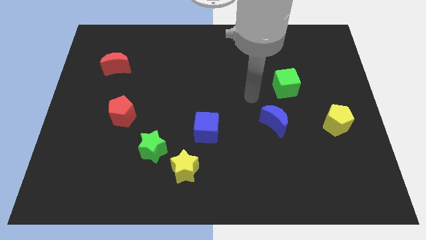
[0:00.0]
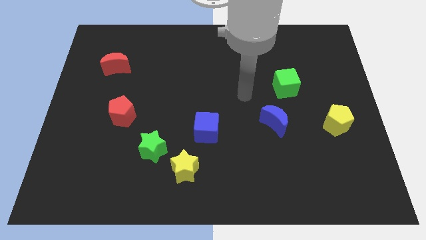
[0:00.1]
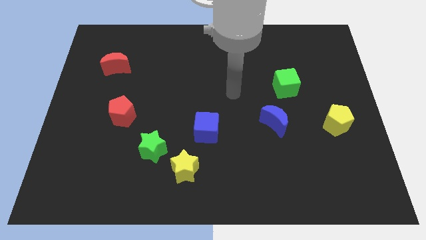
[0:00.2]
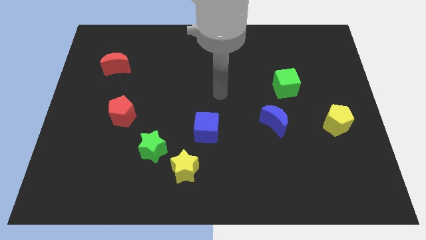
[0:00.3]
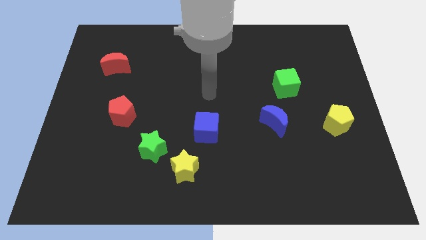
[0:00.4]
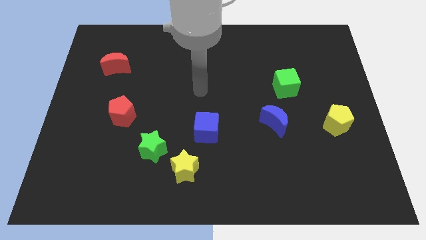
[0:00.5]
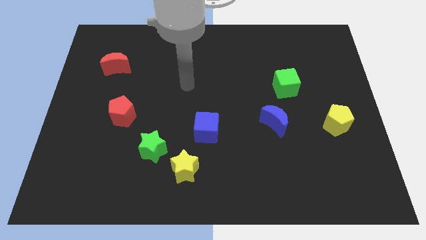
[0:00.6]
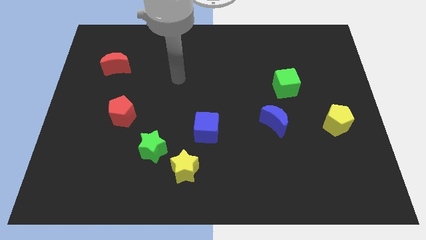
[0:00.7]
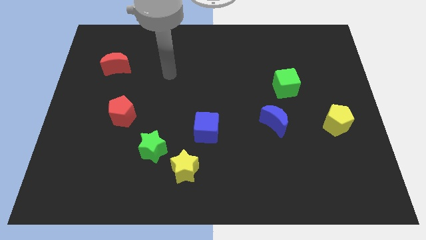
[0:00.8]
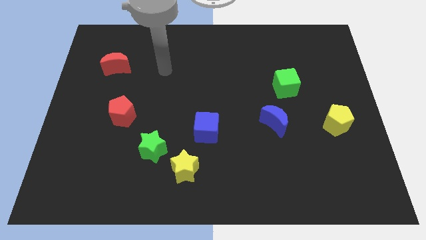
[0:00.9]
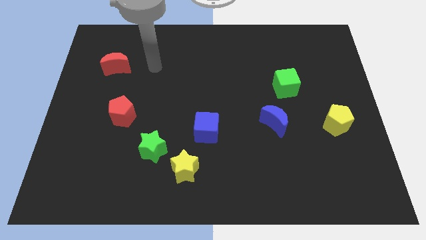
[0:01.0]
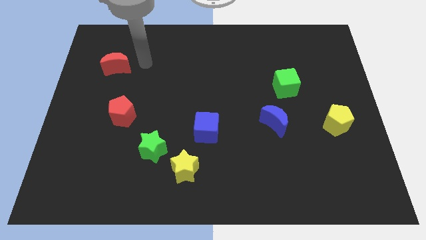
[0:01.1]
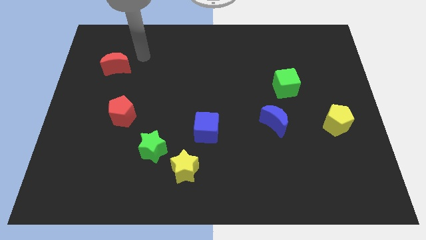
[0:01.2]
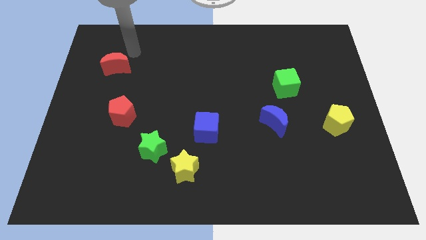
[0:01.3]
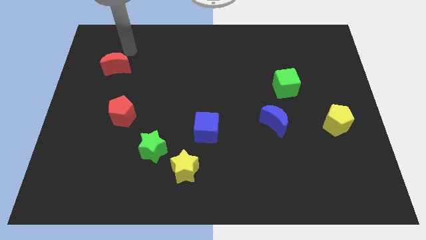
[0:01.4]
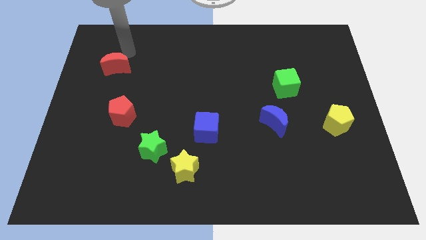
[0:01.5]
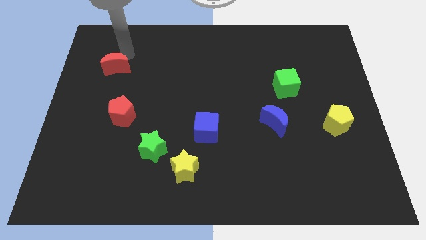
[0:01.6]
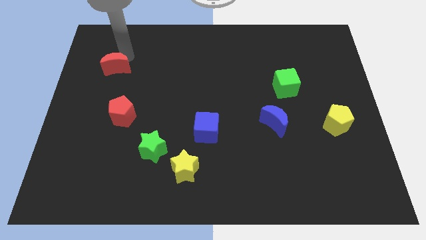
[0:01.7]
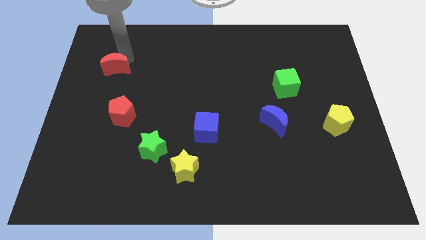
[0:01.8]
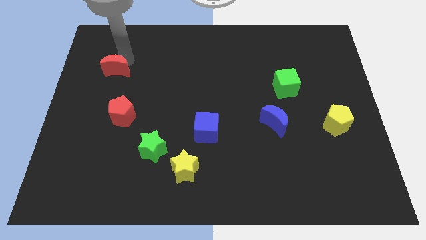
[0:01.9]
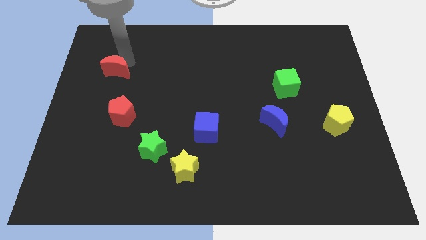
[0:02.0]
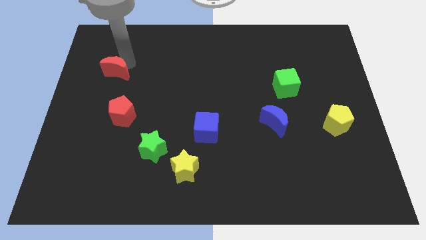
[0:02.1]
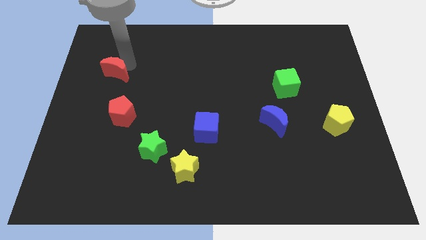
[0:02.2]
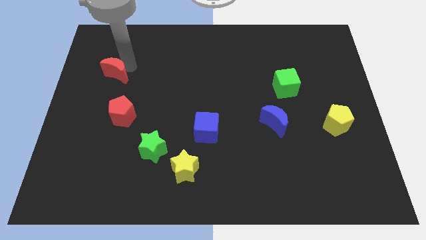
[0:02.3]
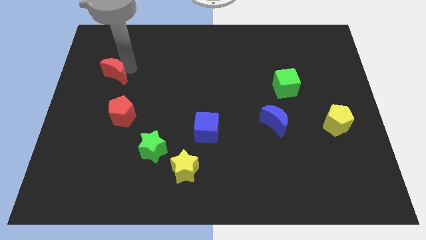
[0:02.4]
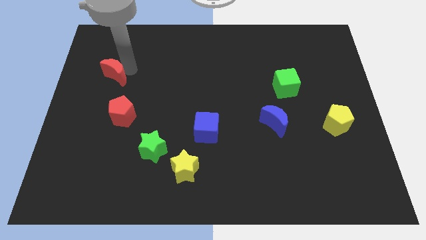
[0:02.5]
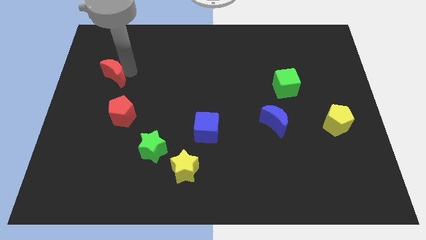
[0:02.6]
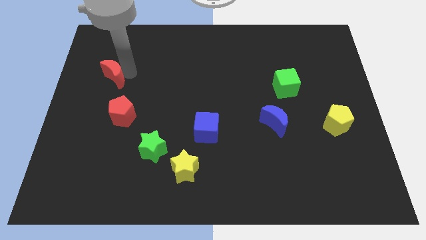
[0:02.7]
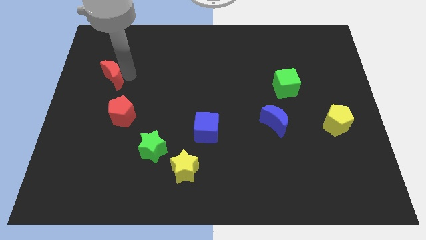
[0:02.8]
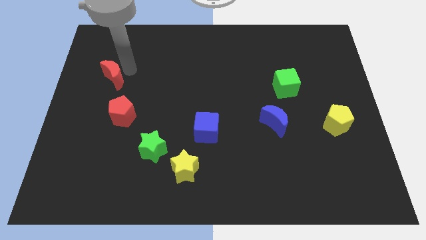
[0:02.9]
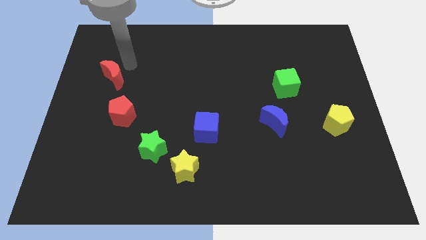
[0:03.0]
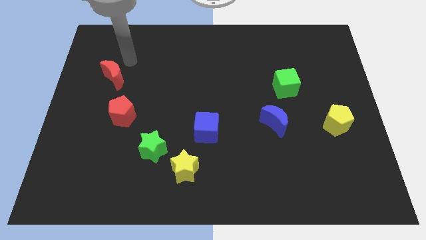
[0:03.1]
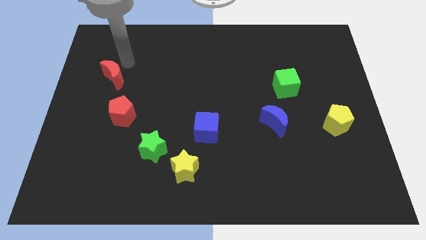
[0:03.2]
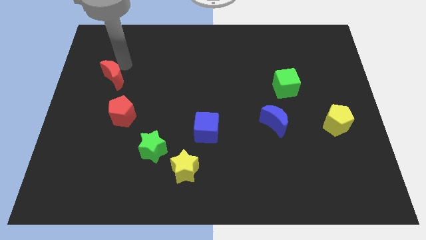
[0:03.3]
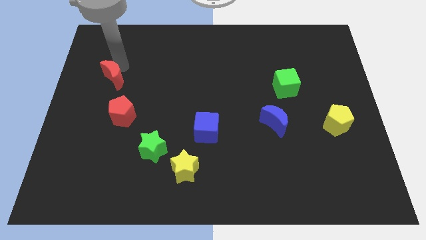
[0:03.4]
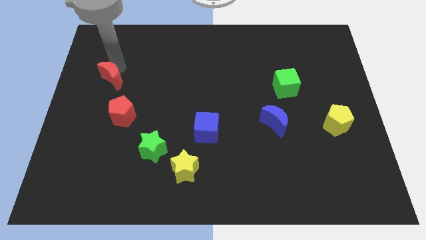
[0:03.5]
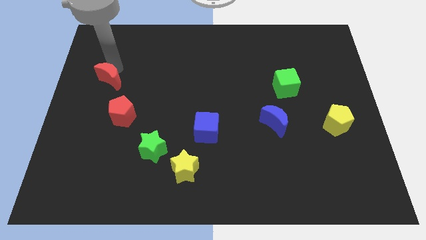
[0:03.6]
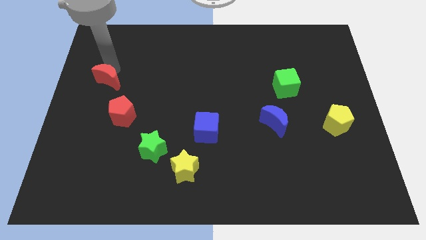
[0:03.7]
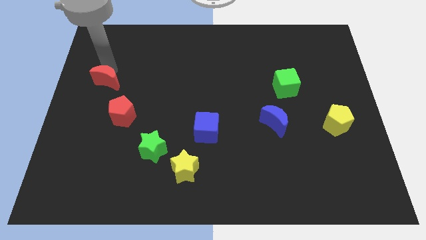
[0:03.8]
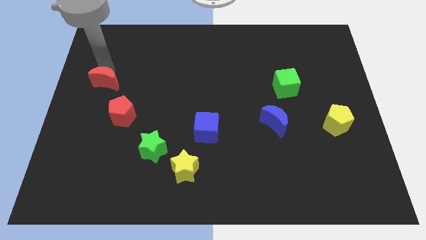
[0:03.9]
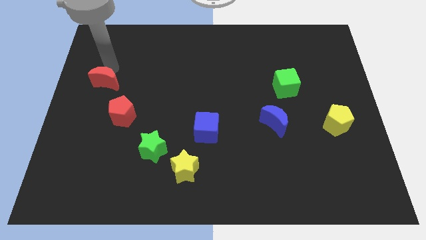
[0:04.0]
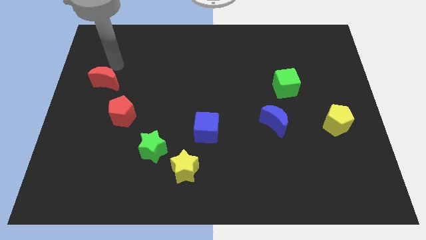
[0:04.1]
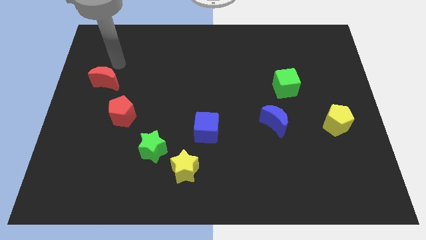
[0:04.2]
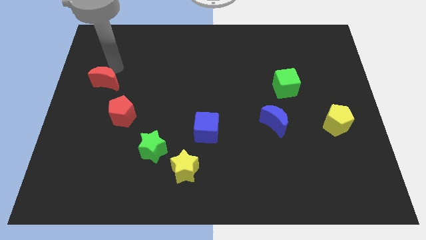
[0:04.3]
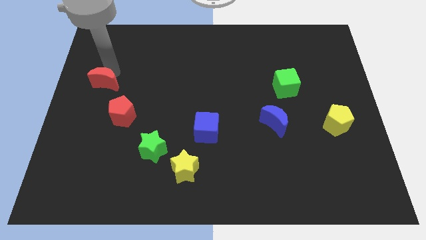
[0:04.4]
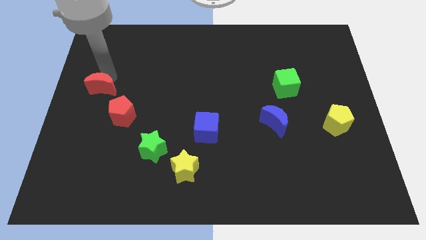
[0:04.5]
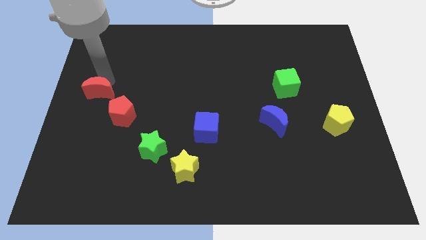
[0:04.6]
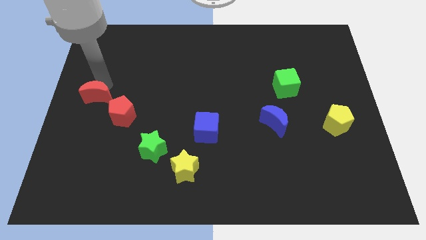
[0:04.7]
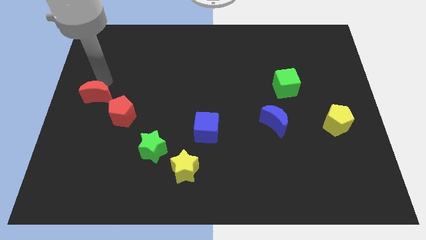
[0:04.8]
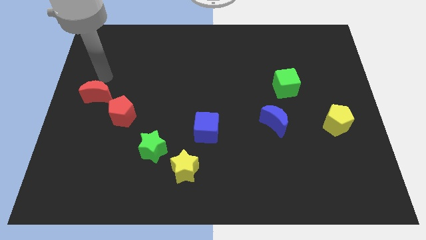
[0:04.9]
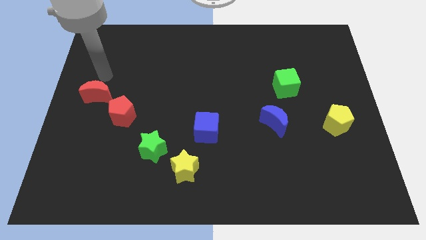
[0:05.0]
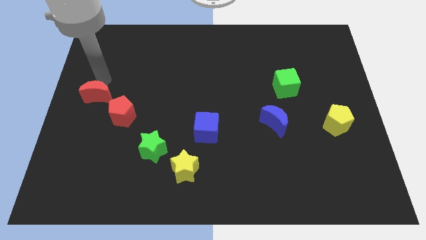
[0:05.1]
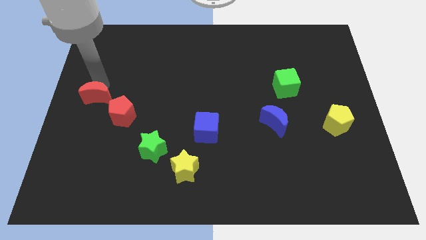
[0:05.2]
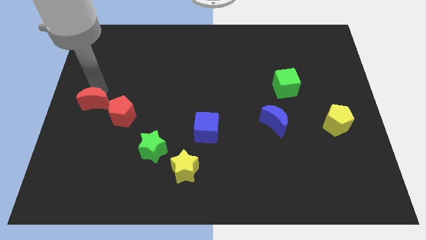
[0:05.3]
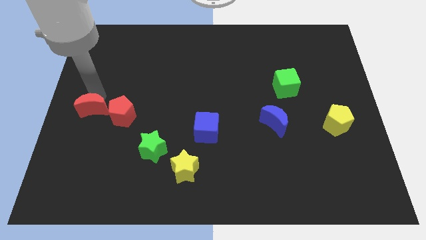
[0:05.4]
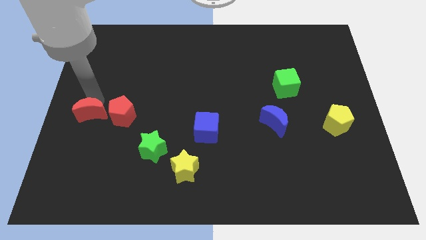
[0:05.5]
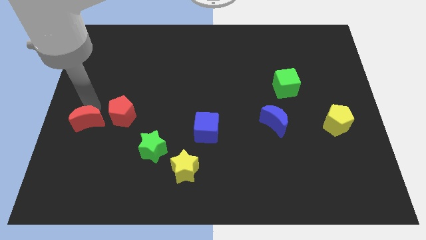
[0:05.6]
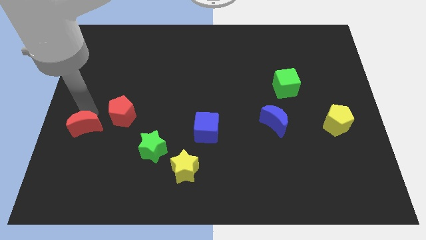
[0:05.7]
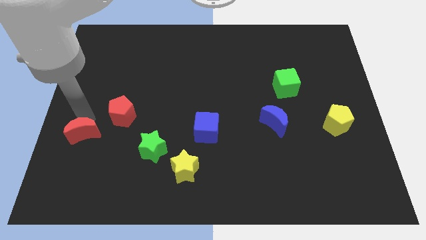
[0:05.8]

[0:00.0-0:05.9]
push the red moon down

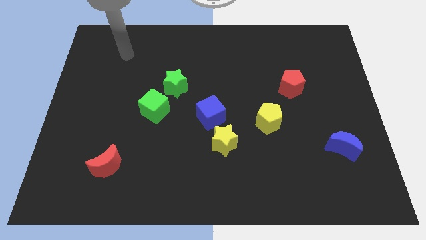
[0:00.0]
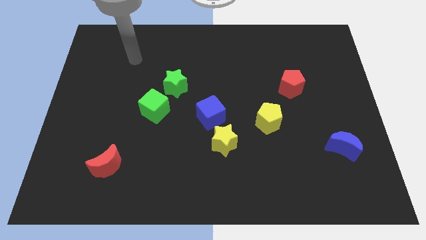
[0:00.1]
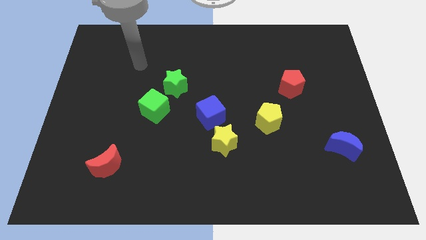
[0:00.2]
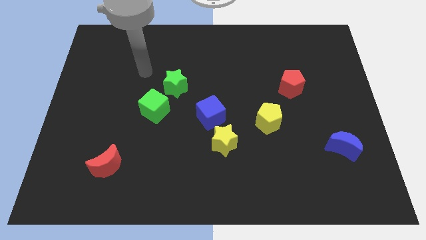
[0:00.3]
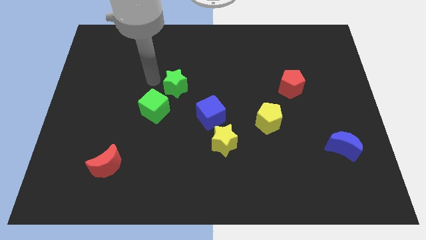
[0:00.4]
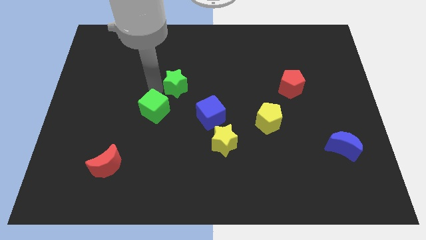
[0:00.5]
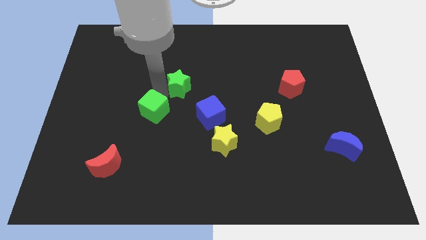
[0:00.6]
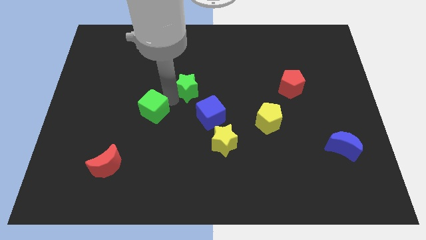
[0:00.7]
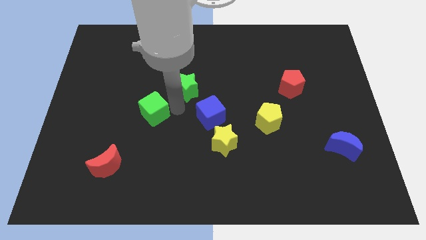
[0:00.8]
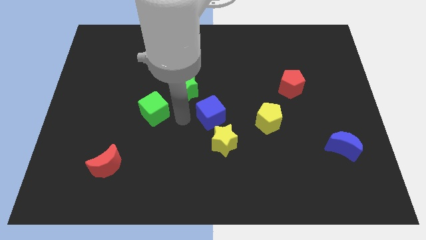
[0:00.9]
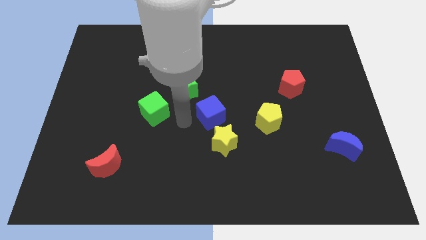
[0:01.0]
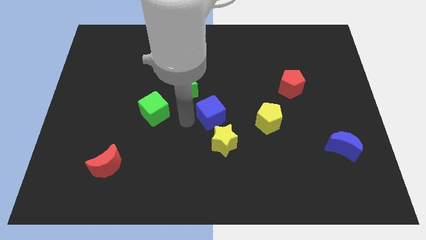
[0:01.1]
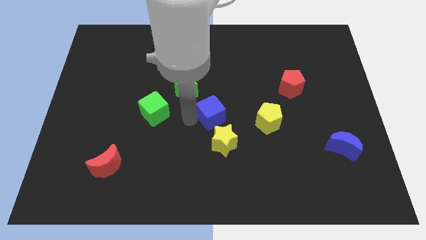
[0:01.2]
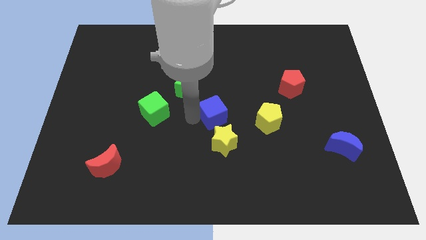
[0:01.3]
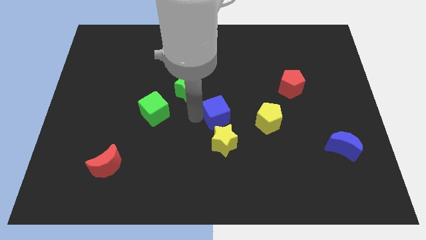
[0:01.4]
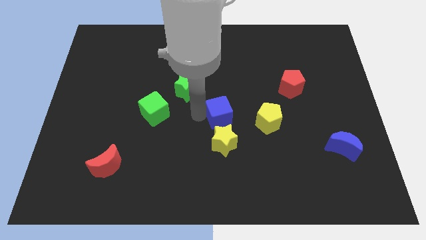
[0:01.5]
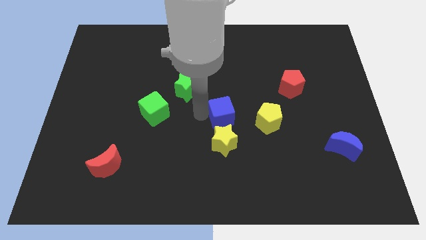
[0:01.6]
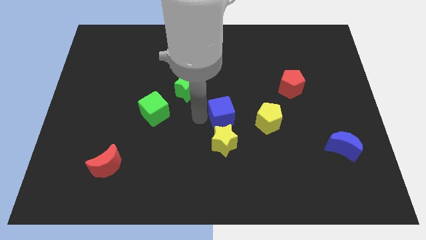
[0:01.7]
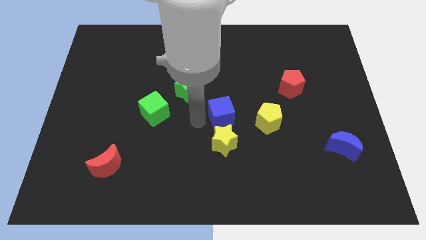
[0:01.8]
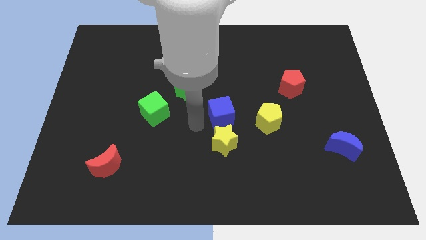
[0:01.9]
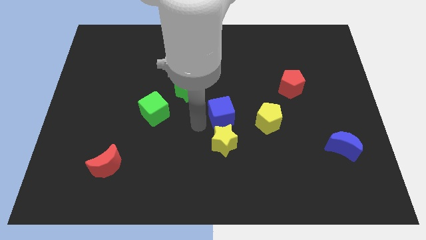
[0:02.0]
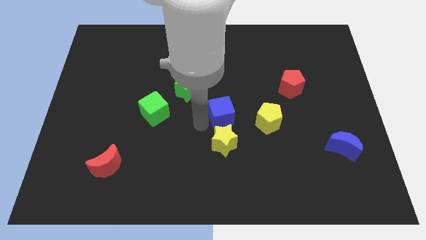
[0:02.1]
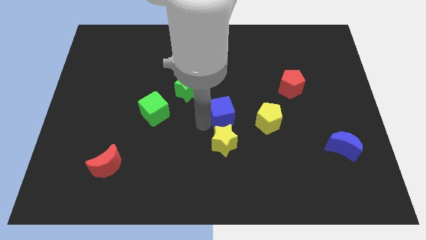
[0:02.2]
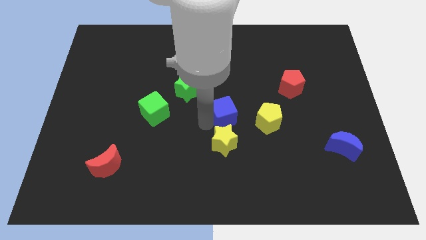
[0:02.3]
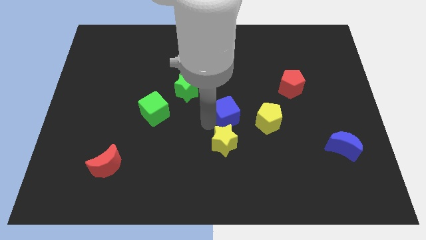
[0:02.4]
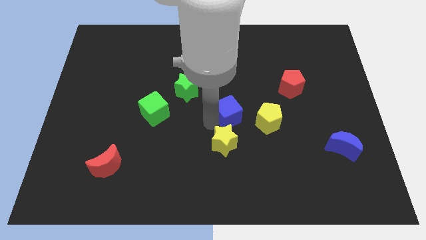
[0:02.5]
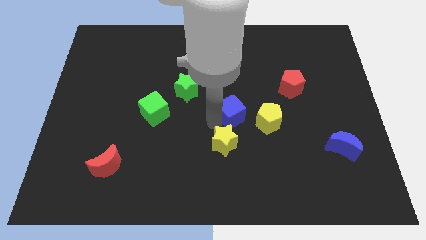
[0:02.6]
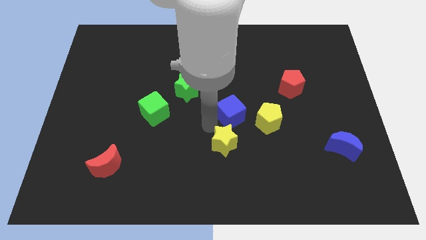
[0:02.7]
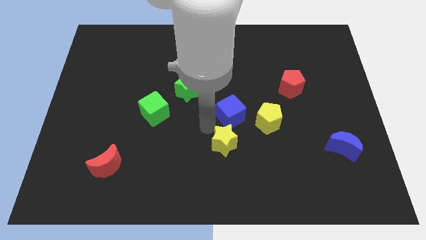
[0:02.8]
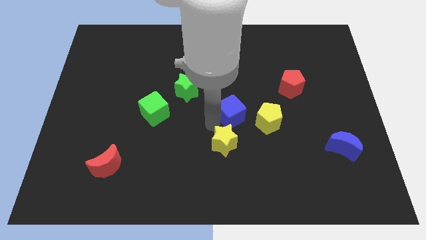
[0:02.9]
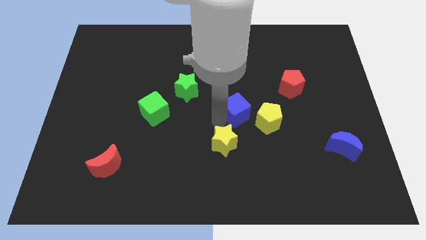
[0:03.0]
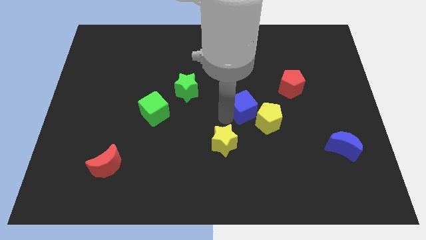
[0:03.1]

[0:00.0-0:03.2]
move the blue cube somewhat to the right
